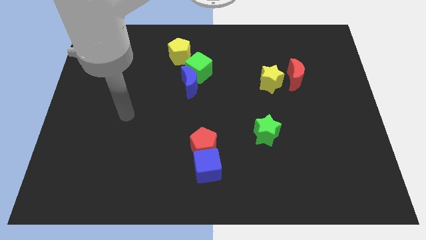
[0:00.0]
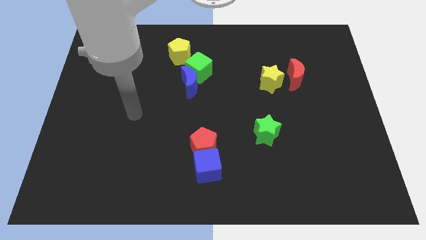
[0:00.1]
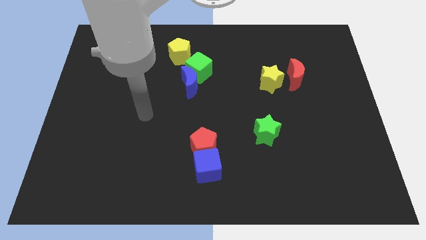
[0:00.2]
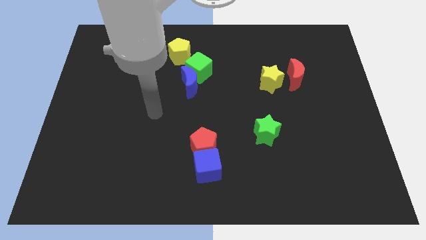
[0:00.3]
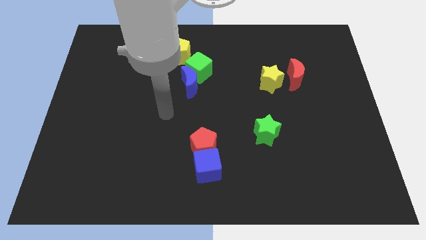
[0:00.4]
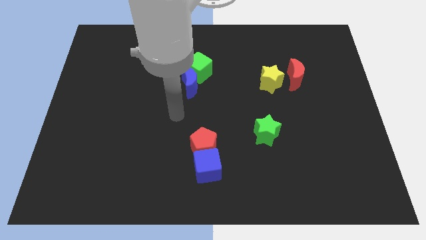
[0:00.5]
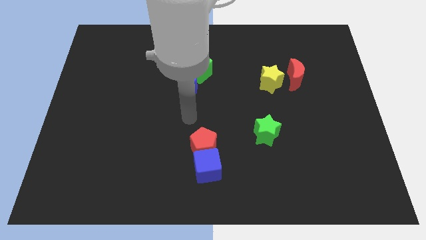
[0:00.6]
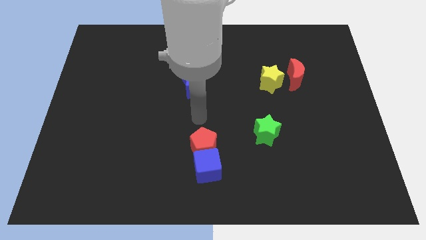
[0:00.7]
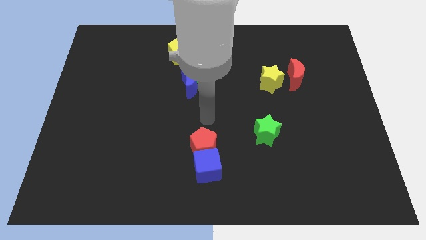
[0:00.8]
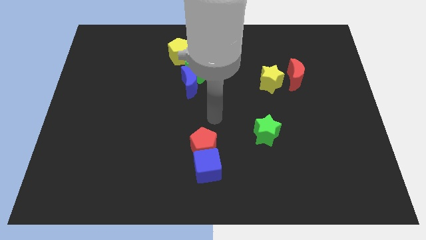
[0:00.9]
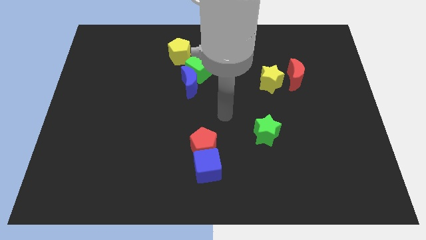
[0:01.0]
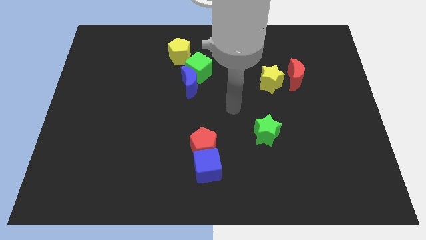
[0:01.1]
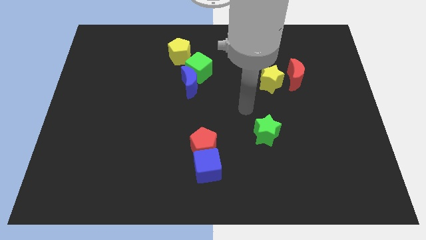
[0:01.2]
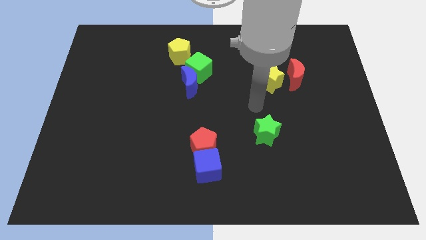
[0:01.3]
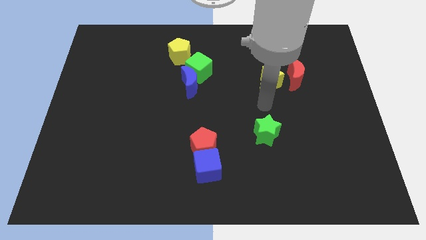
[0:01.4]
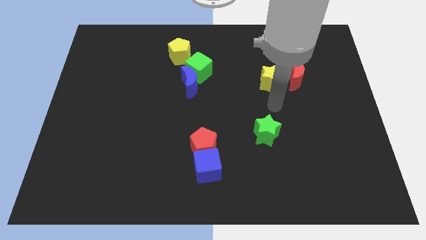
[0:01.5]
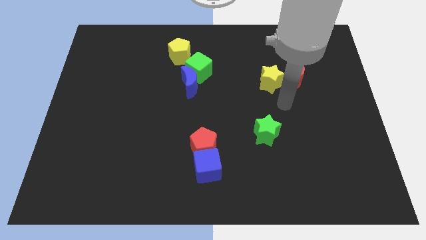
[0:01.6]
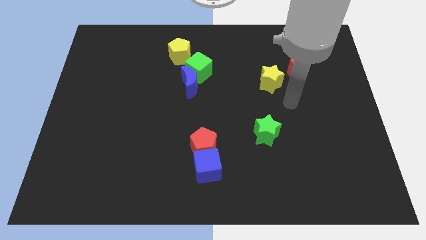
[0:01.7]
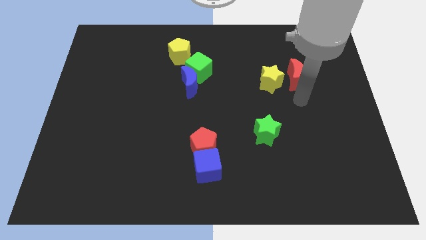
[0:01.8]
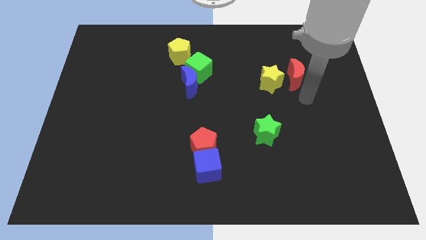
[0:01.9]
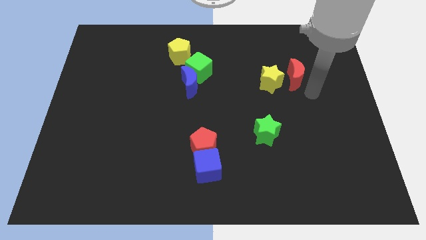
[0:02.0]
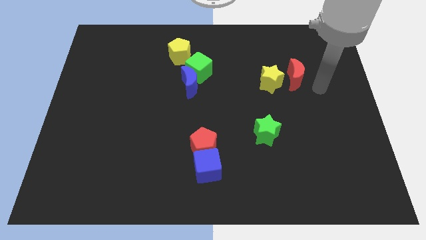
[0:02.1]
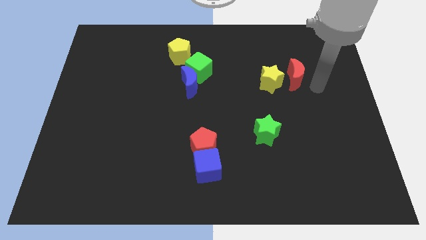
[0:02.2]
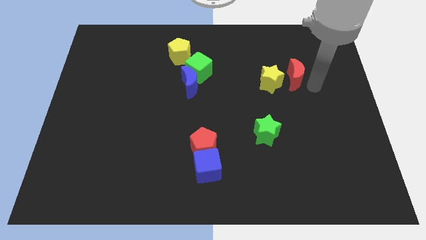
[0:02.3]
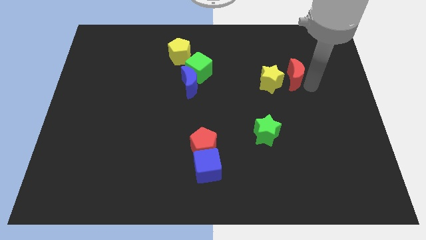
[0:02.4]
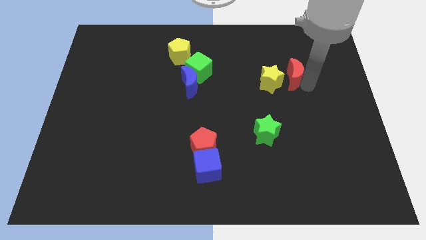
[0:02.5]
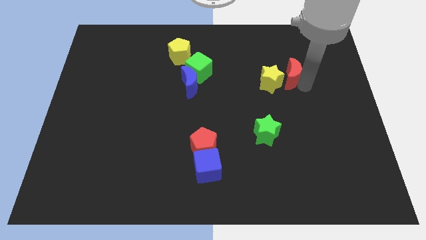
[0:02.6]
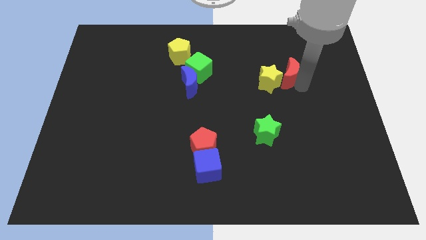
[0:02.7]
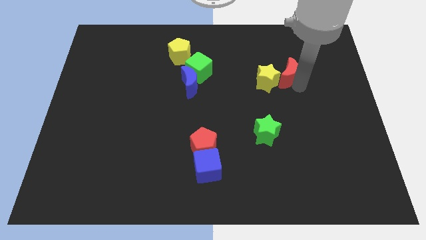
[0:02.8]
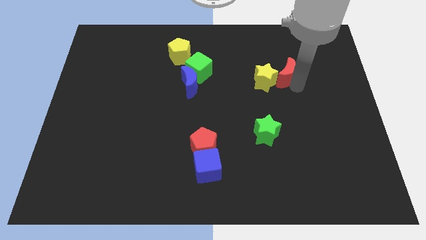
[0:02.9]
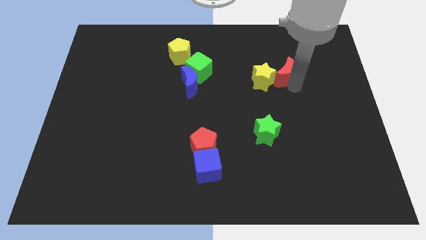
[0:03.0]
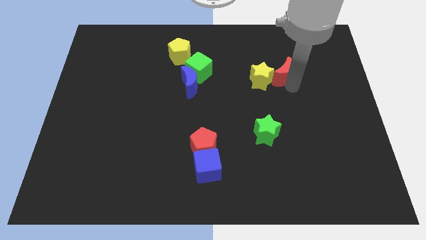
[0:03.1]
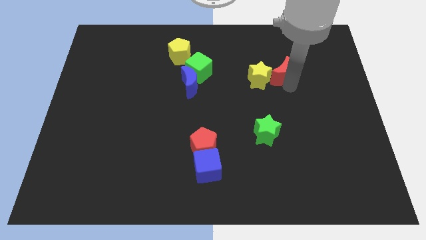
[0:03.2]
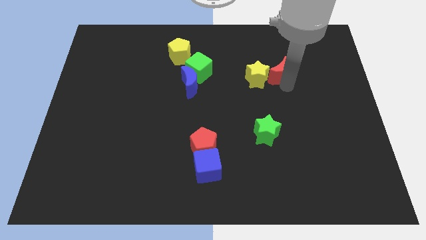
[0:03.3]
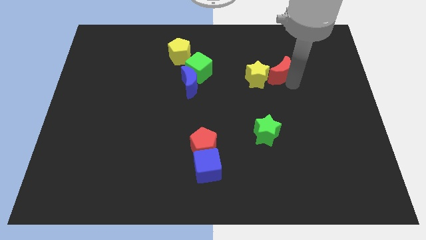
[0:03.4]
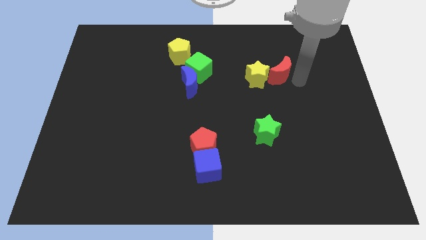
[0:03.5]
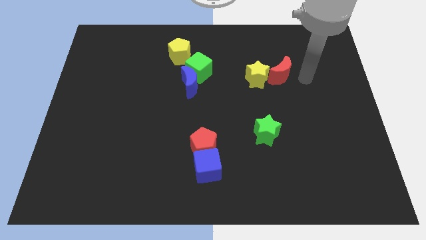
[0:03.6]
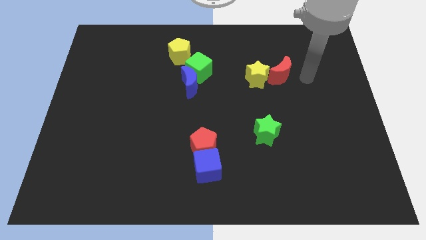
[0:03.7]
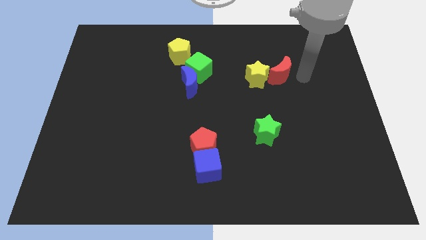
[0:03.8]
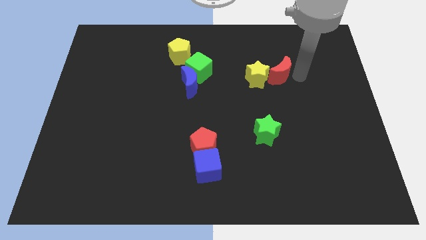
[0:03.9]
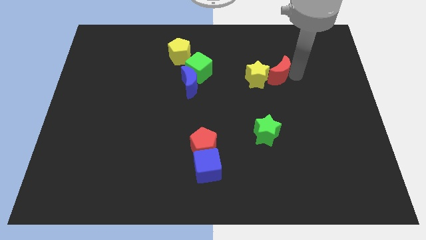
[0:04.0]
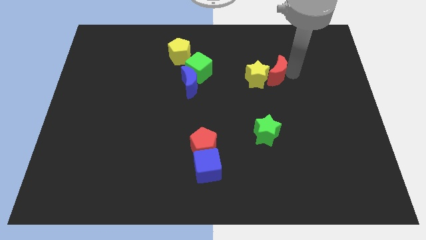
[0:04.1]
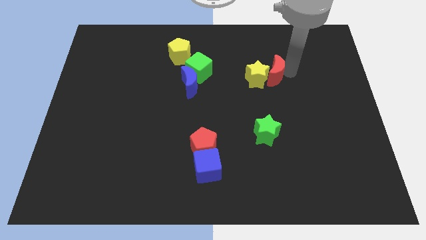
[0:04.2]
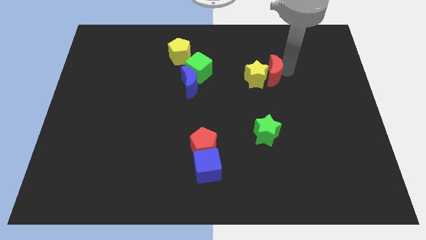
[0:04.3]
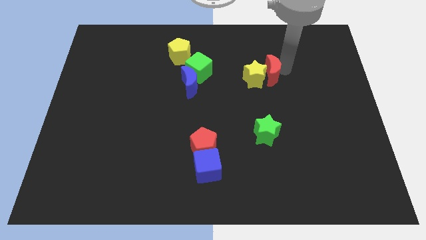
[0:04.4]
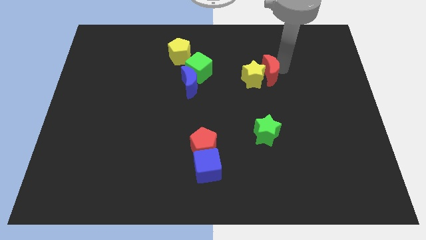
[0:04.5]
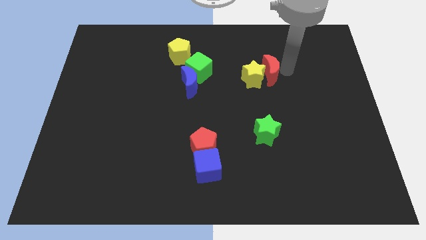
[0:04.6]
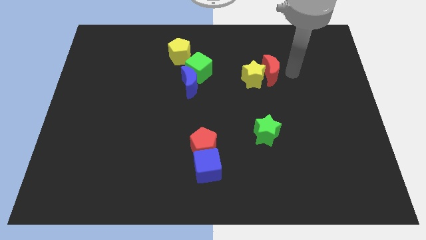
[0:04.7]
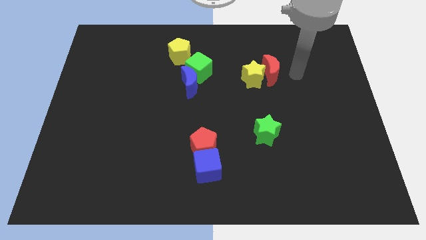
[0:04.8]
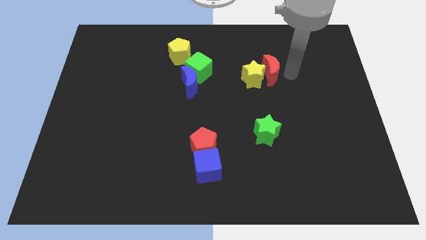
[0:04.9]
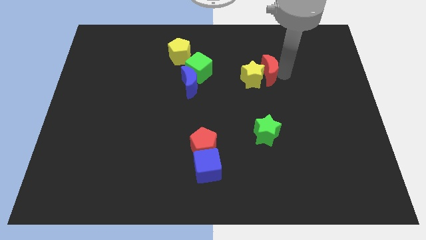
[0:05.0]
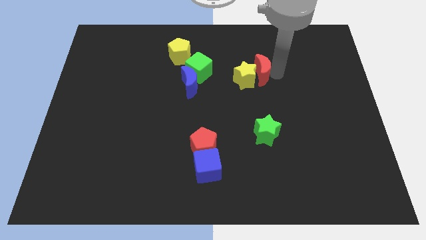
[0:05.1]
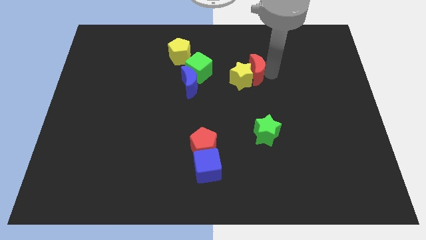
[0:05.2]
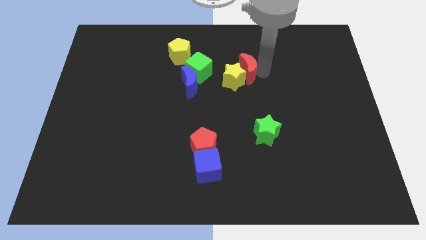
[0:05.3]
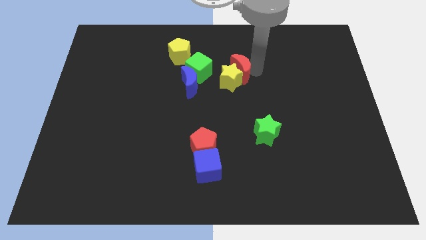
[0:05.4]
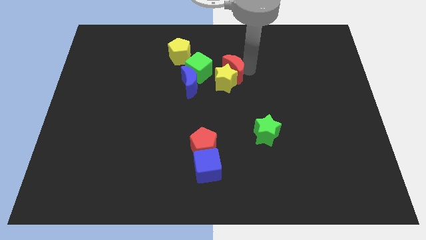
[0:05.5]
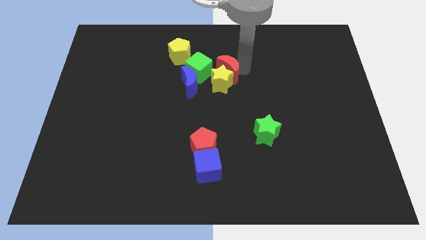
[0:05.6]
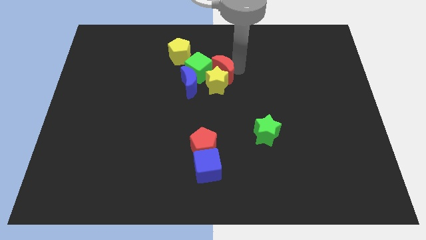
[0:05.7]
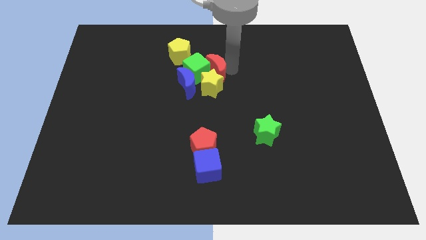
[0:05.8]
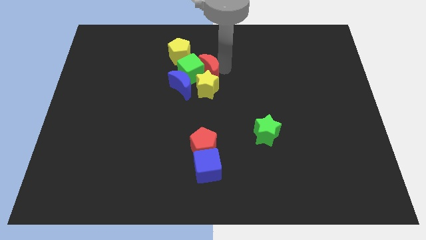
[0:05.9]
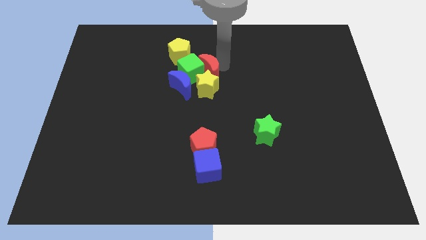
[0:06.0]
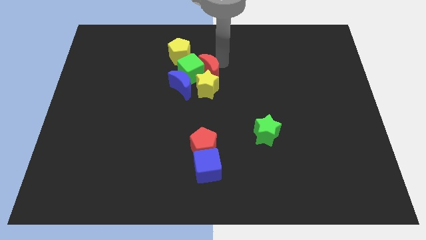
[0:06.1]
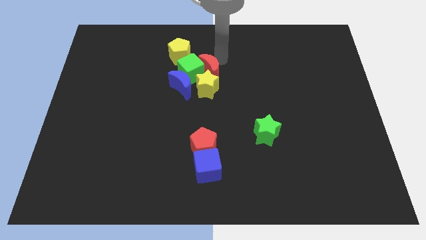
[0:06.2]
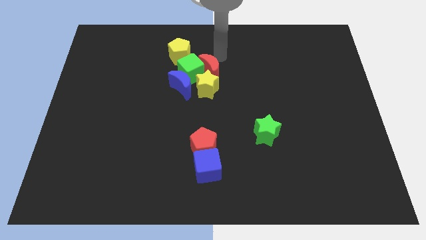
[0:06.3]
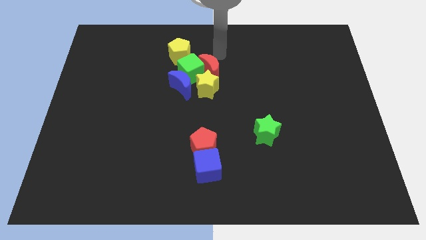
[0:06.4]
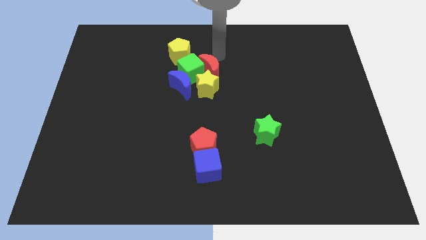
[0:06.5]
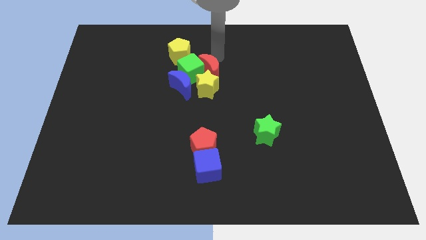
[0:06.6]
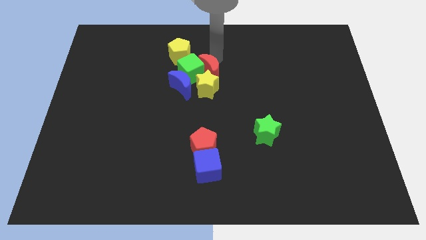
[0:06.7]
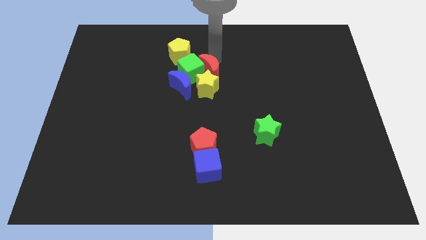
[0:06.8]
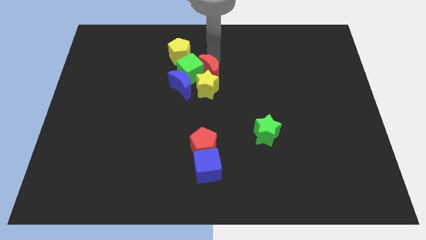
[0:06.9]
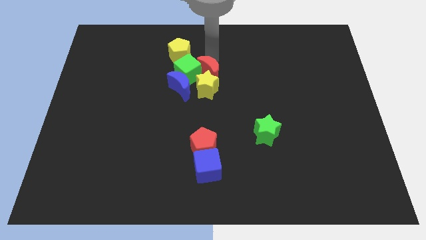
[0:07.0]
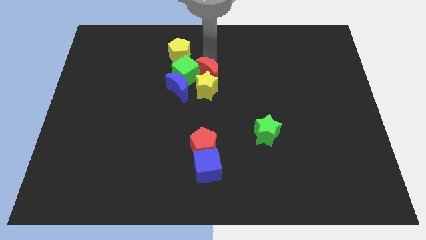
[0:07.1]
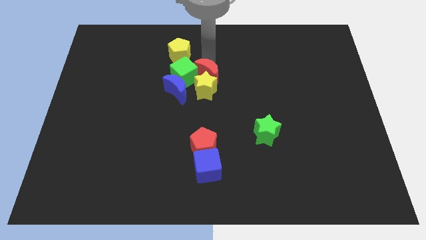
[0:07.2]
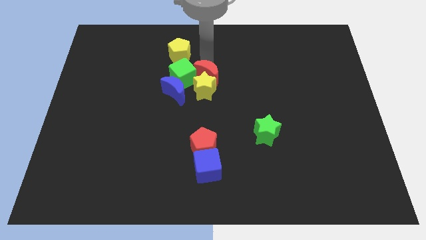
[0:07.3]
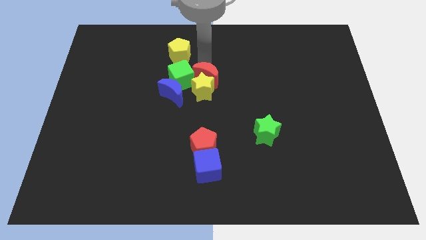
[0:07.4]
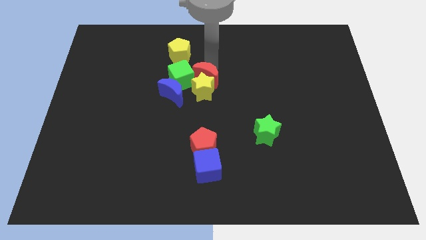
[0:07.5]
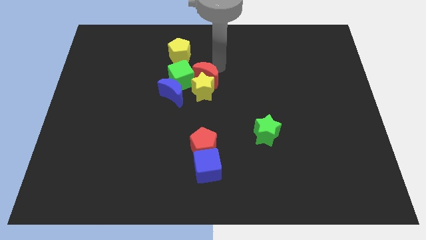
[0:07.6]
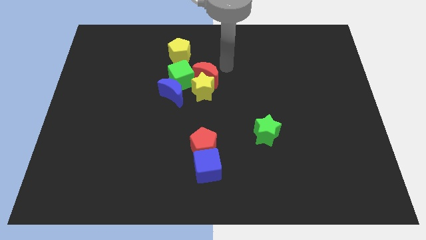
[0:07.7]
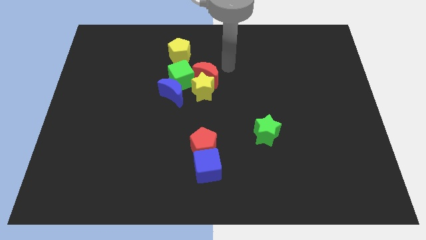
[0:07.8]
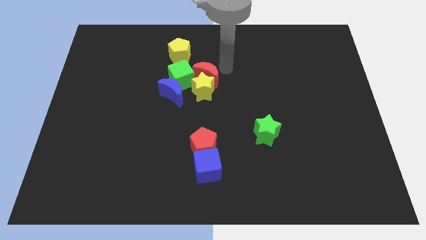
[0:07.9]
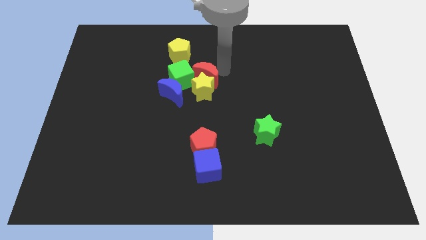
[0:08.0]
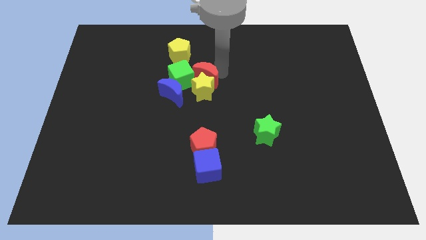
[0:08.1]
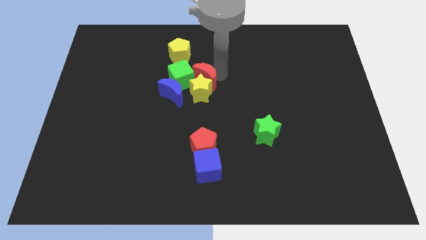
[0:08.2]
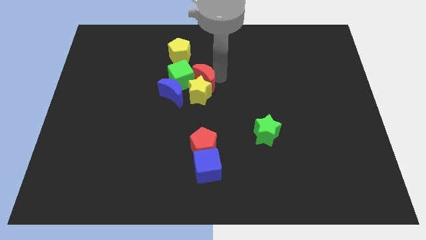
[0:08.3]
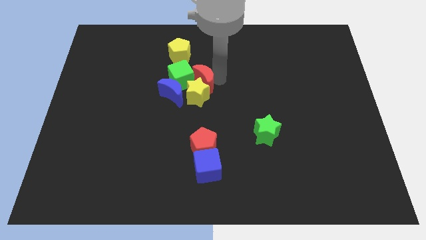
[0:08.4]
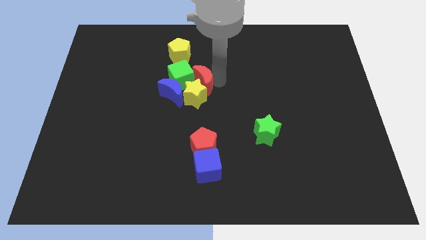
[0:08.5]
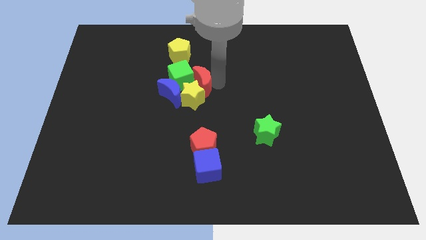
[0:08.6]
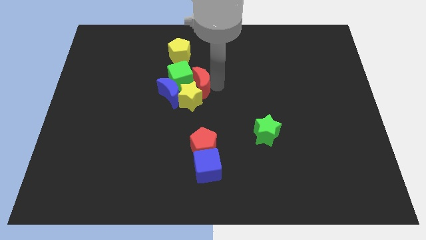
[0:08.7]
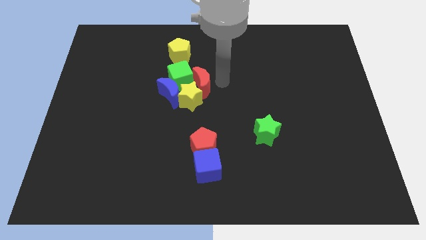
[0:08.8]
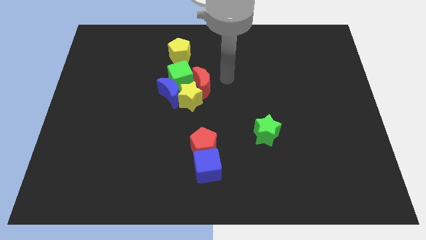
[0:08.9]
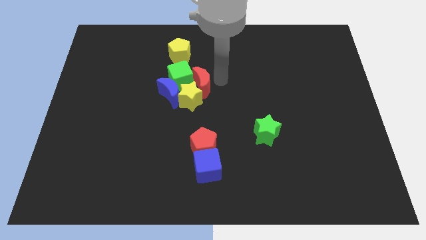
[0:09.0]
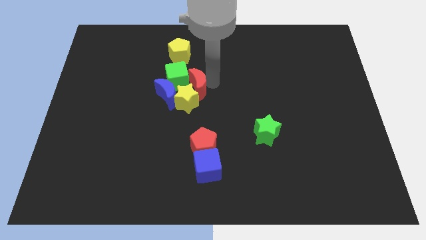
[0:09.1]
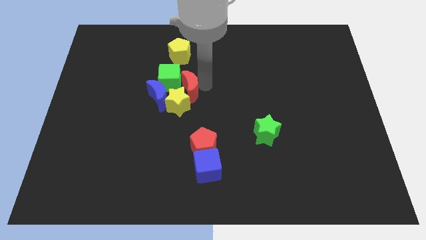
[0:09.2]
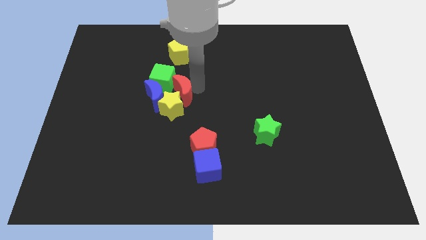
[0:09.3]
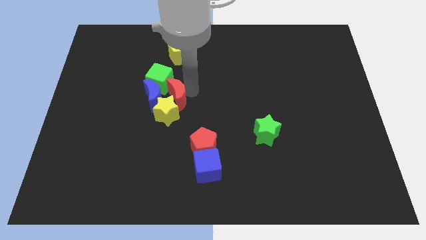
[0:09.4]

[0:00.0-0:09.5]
put the red moon next to the blue moon
